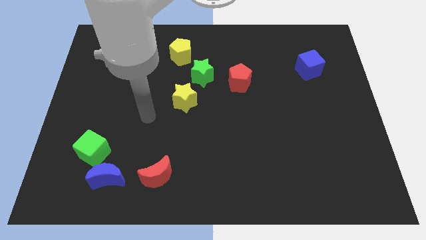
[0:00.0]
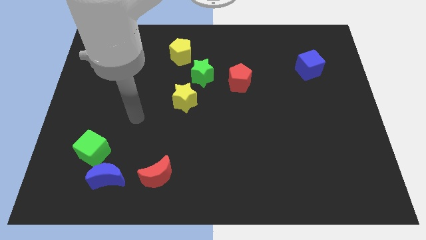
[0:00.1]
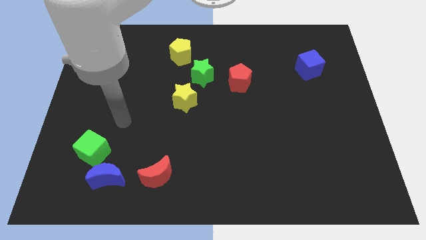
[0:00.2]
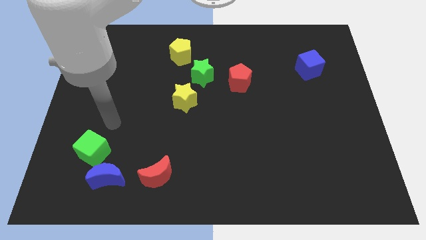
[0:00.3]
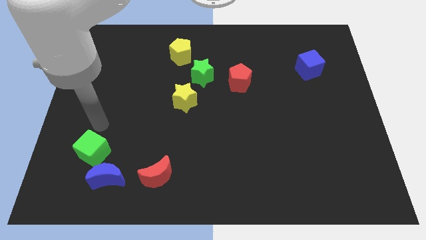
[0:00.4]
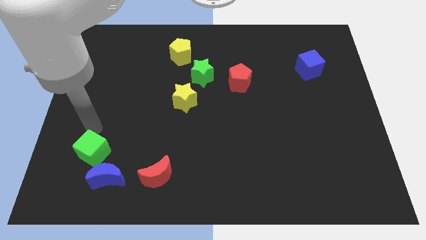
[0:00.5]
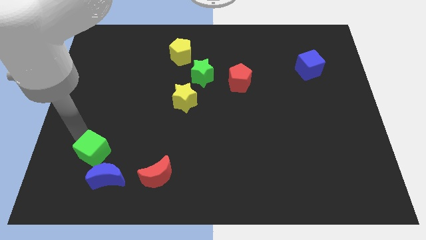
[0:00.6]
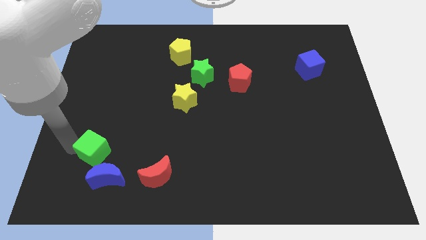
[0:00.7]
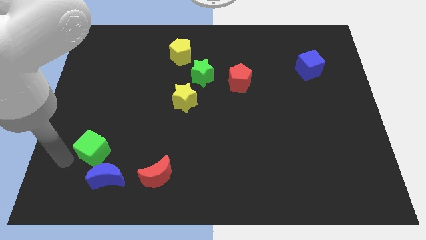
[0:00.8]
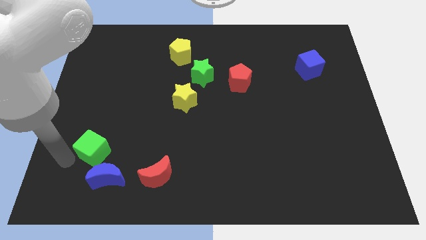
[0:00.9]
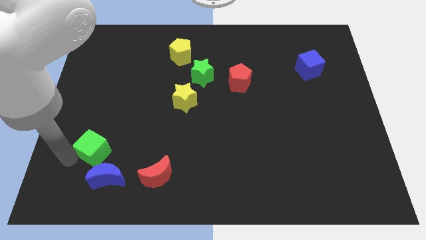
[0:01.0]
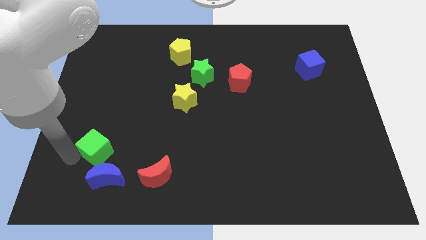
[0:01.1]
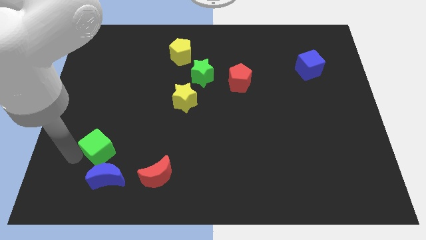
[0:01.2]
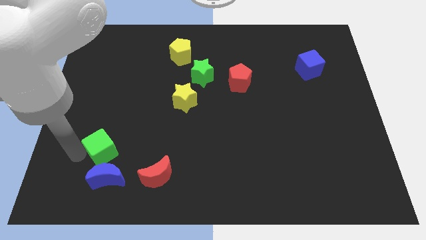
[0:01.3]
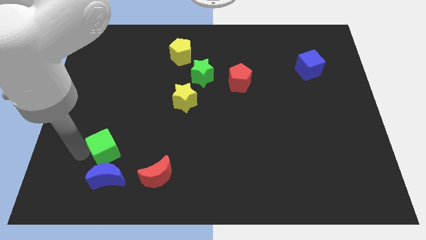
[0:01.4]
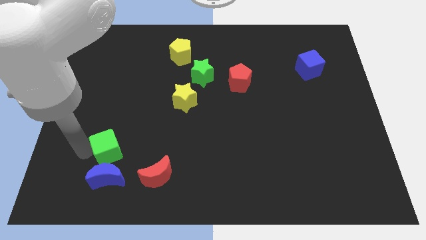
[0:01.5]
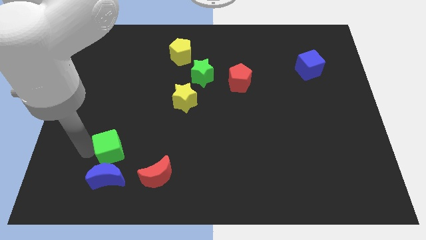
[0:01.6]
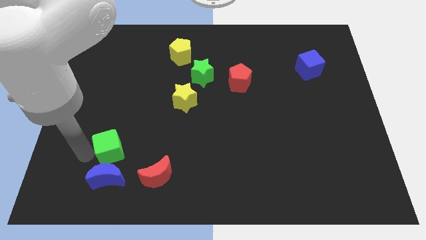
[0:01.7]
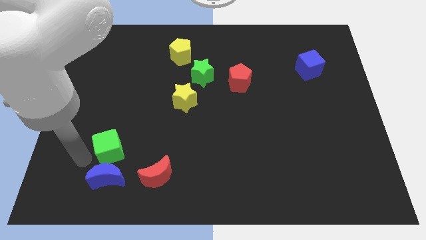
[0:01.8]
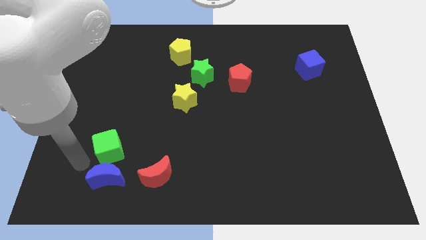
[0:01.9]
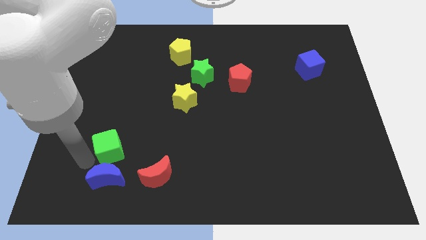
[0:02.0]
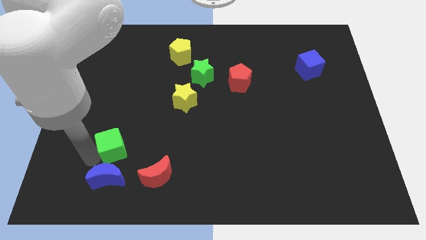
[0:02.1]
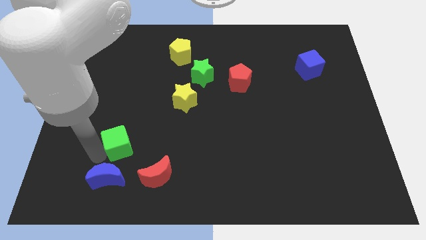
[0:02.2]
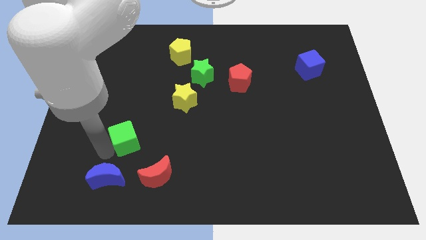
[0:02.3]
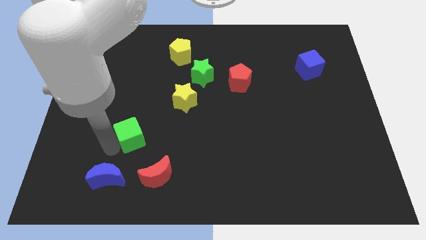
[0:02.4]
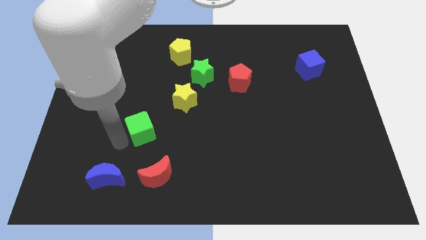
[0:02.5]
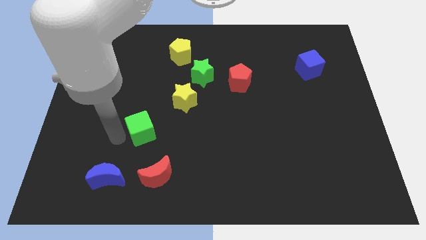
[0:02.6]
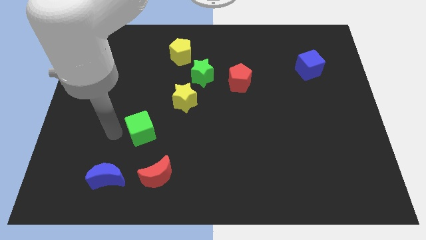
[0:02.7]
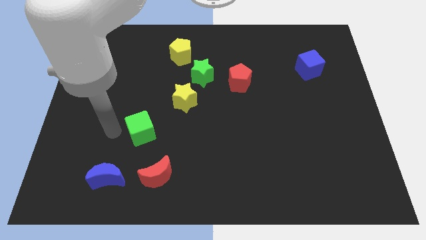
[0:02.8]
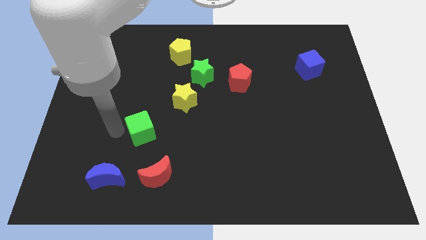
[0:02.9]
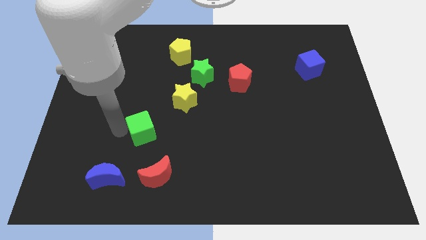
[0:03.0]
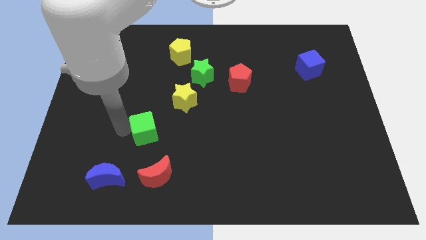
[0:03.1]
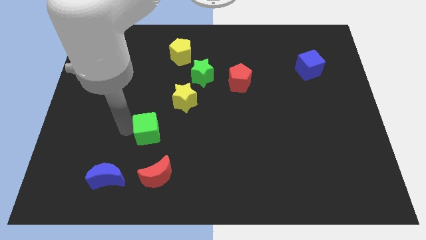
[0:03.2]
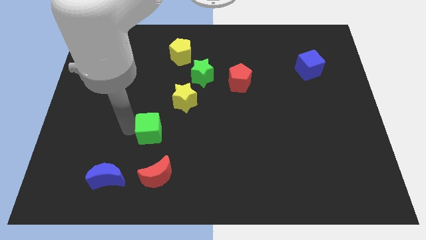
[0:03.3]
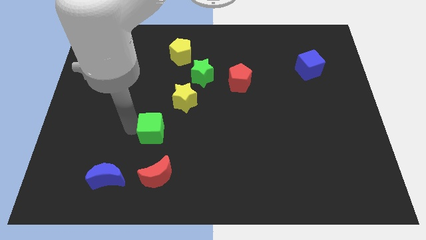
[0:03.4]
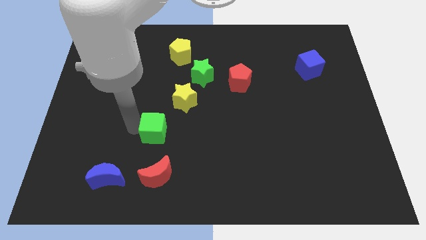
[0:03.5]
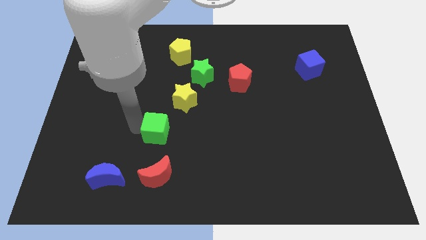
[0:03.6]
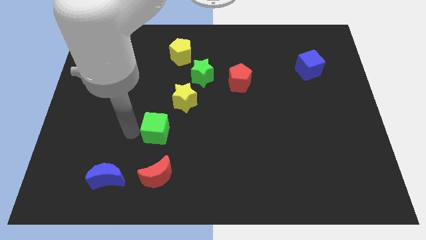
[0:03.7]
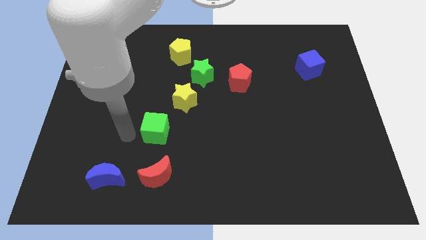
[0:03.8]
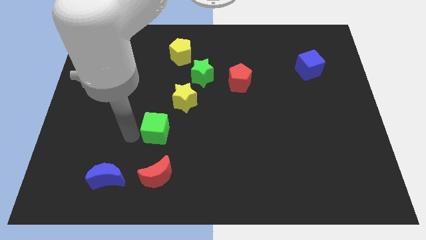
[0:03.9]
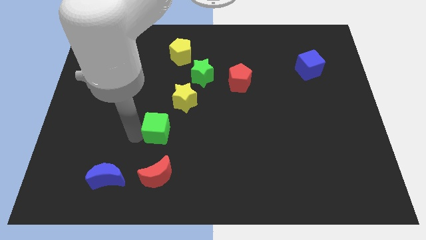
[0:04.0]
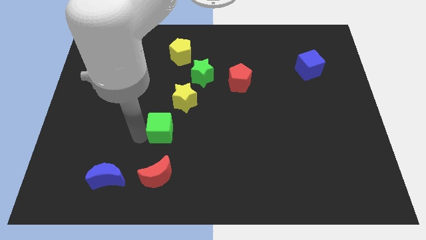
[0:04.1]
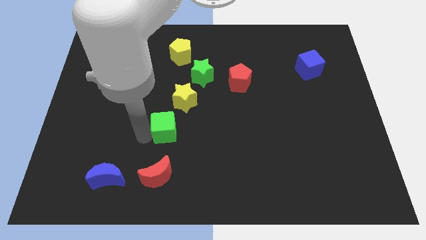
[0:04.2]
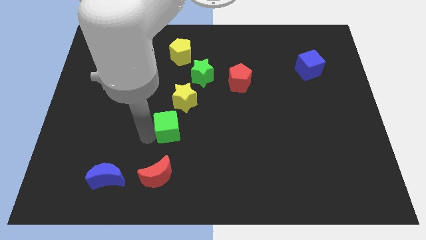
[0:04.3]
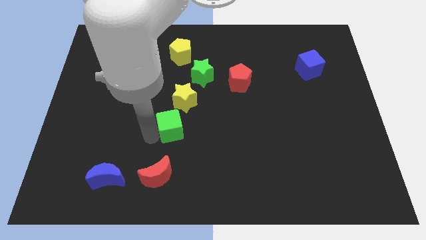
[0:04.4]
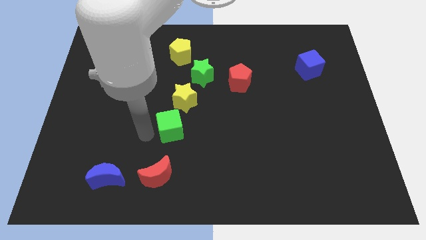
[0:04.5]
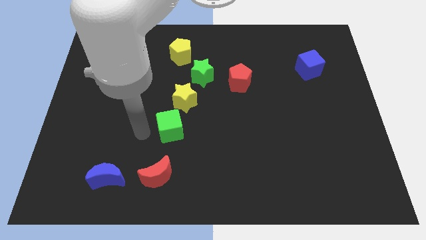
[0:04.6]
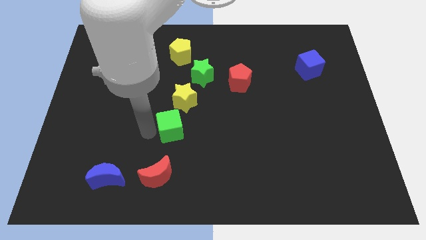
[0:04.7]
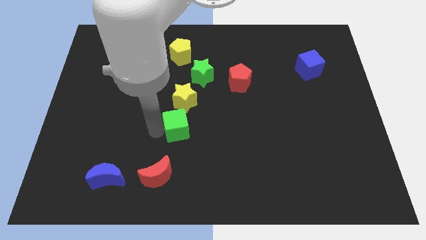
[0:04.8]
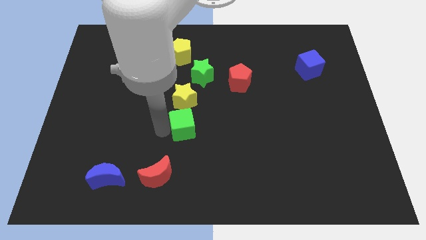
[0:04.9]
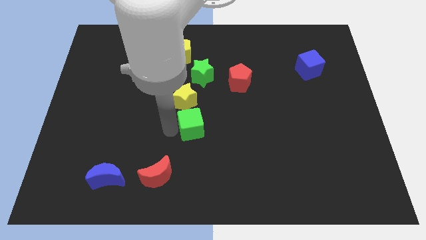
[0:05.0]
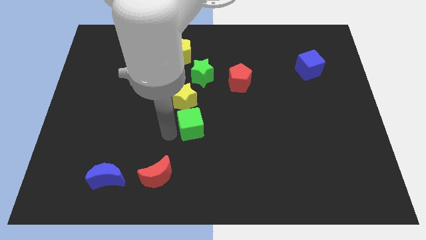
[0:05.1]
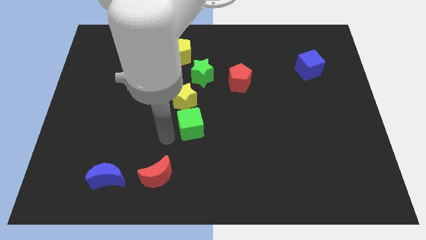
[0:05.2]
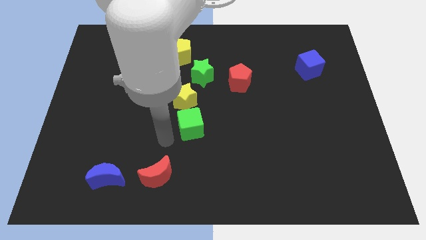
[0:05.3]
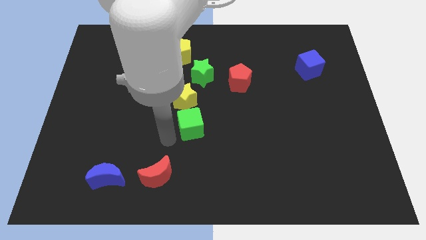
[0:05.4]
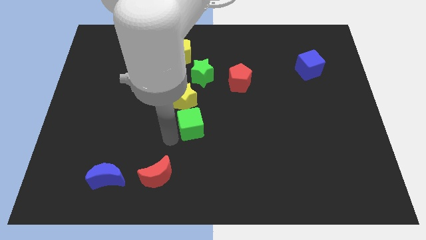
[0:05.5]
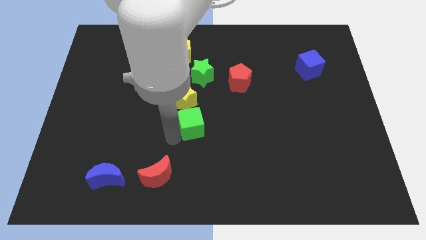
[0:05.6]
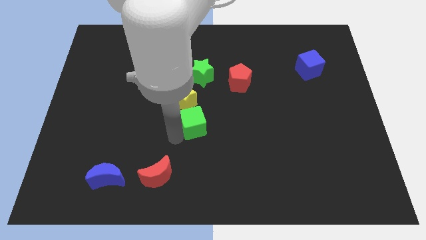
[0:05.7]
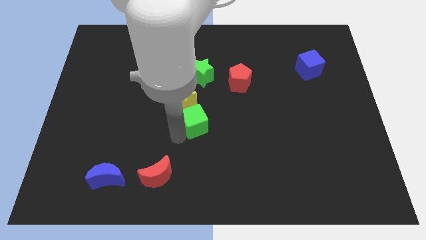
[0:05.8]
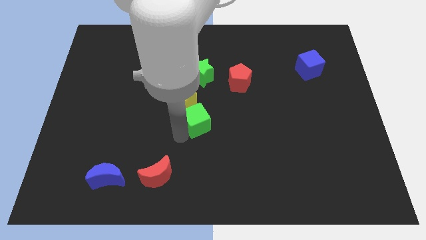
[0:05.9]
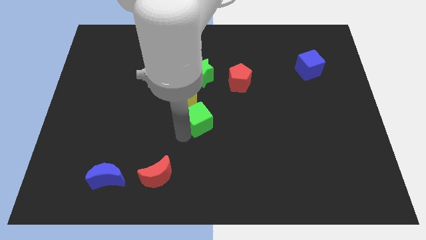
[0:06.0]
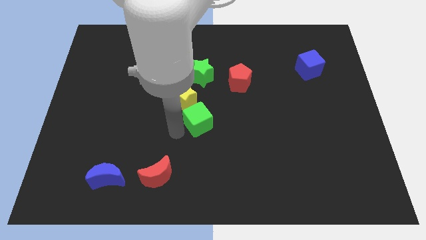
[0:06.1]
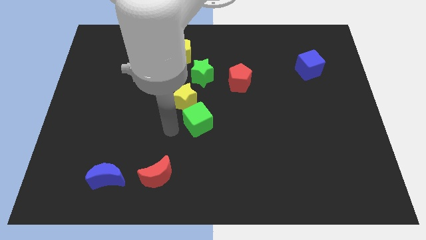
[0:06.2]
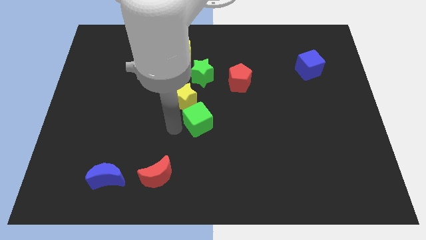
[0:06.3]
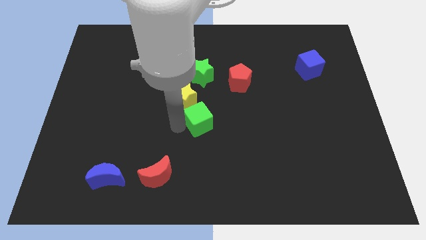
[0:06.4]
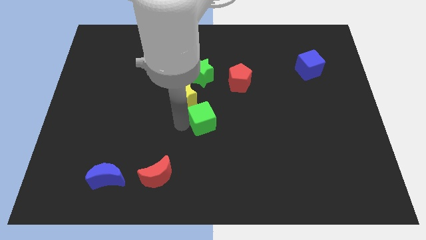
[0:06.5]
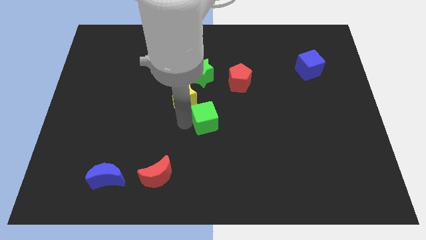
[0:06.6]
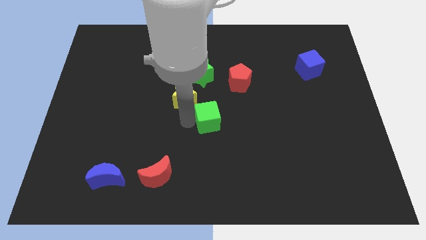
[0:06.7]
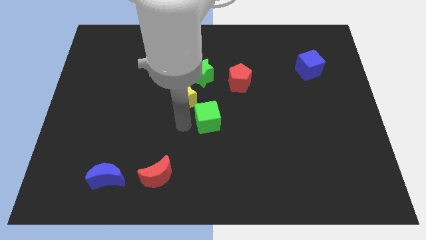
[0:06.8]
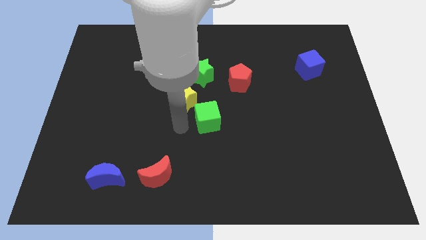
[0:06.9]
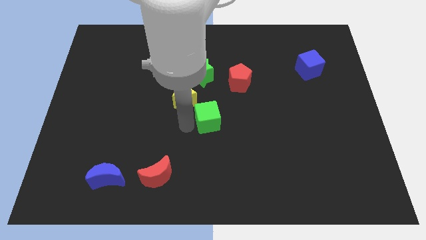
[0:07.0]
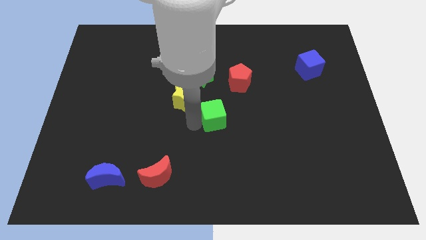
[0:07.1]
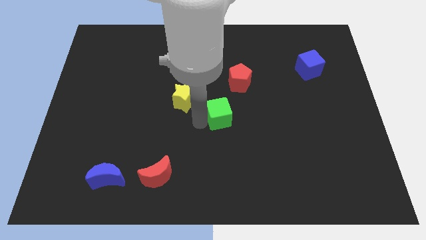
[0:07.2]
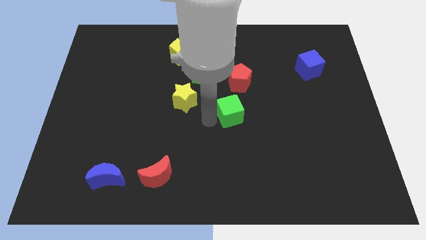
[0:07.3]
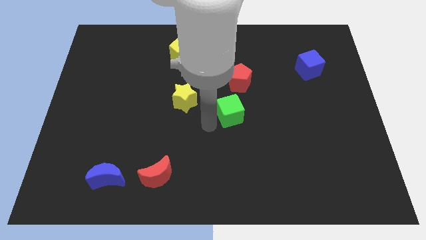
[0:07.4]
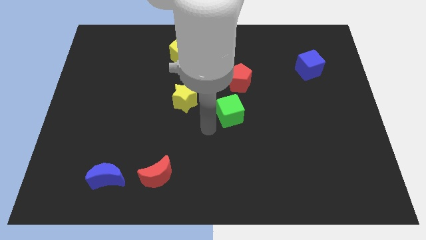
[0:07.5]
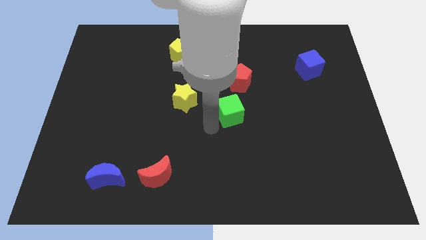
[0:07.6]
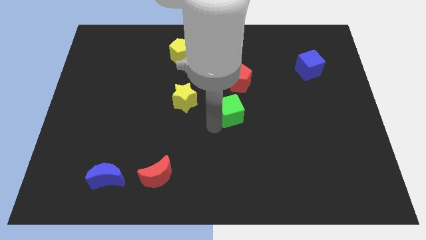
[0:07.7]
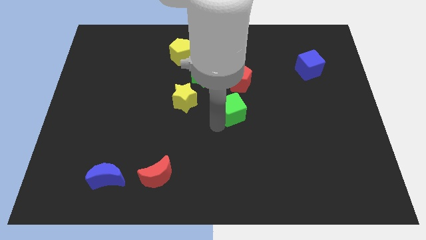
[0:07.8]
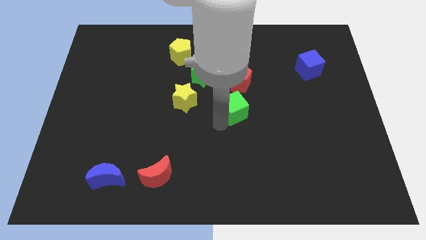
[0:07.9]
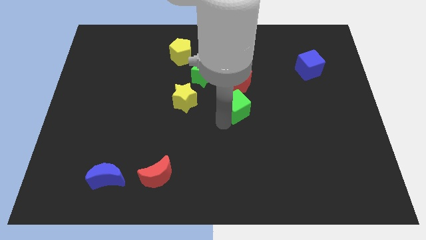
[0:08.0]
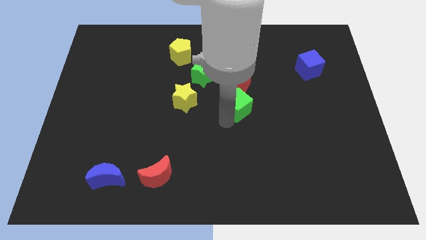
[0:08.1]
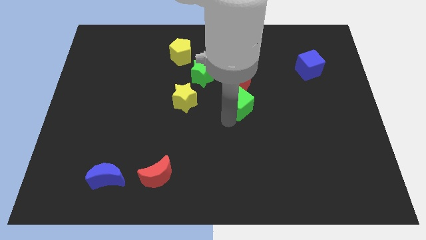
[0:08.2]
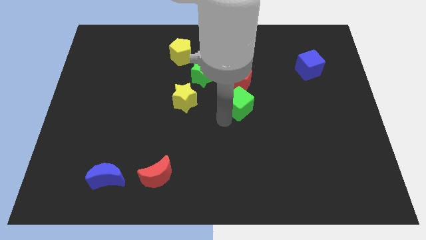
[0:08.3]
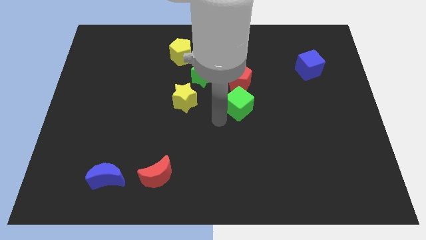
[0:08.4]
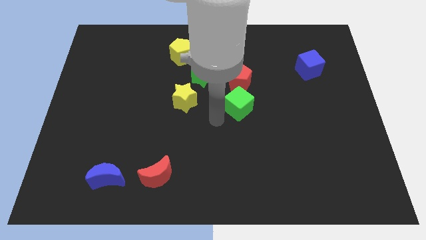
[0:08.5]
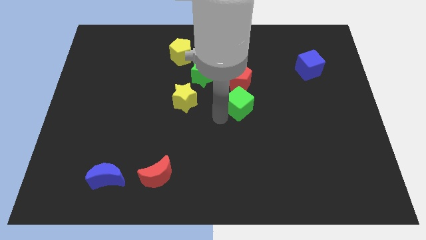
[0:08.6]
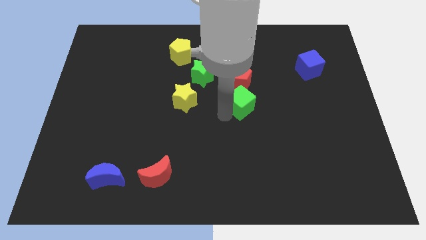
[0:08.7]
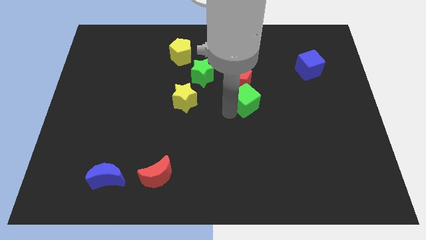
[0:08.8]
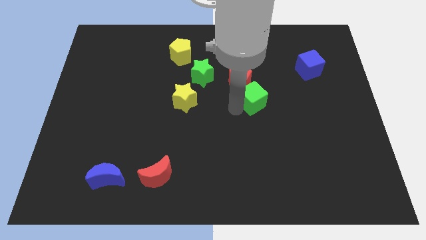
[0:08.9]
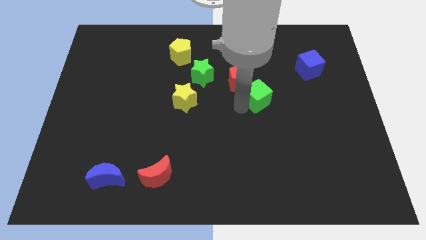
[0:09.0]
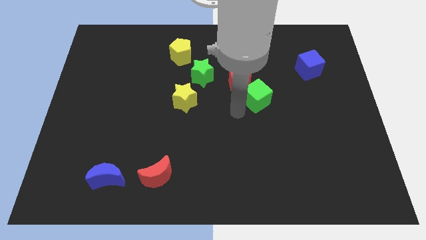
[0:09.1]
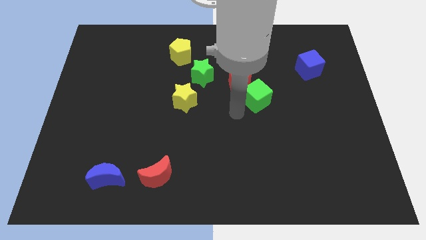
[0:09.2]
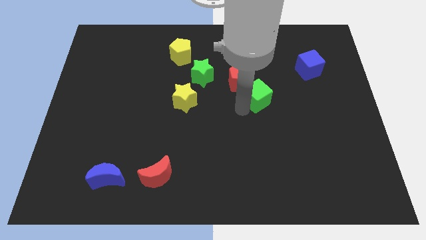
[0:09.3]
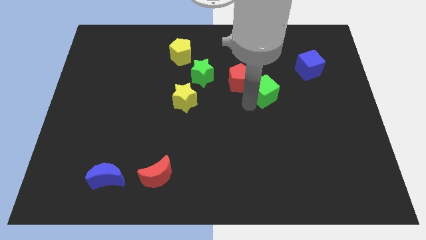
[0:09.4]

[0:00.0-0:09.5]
move the green cube to the right of the red pentagon
